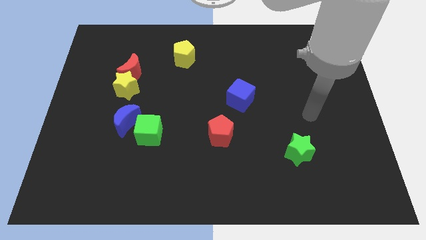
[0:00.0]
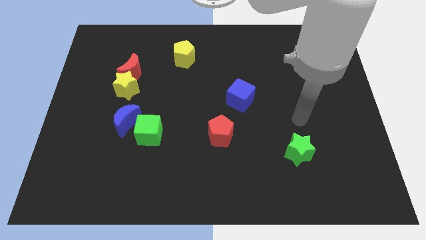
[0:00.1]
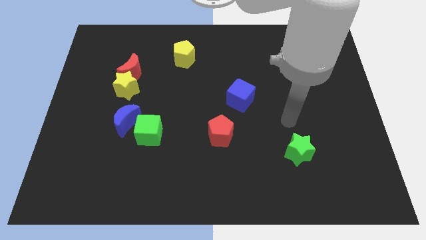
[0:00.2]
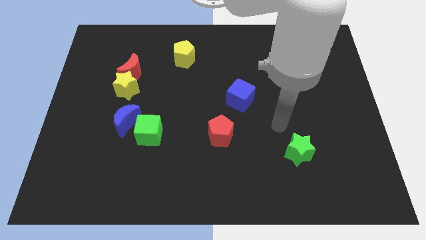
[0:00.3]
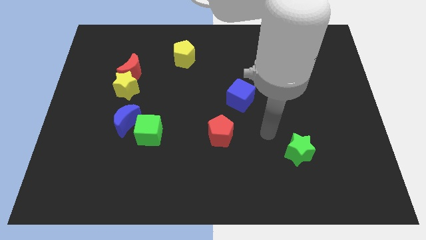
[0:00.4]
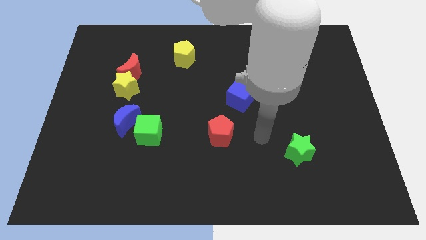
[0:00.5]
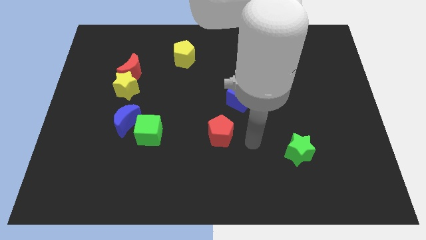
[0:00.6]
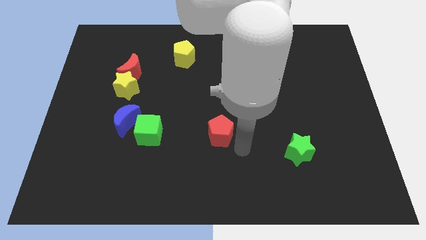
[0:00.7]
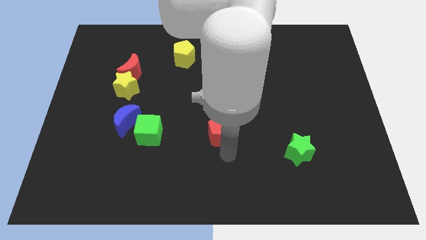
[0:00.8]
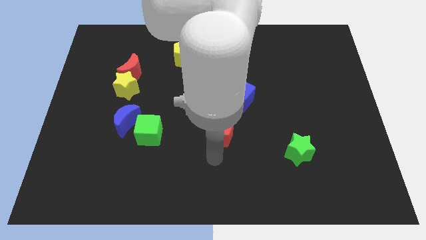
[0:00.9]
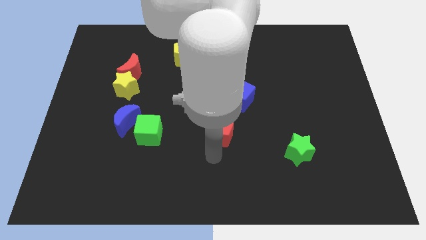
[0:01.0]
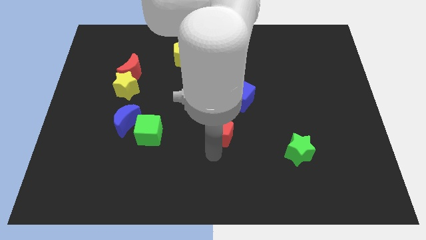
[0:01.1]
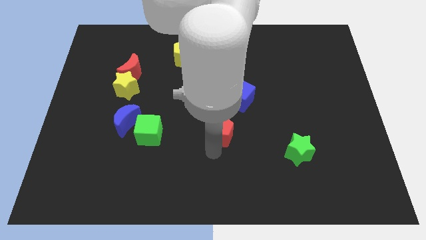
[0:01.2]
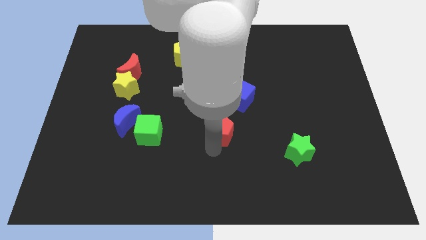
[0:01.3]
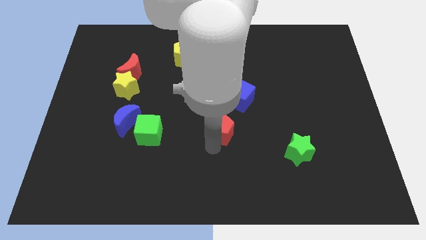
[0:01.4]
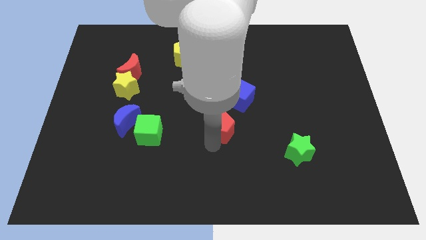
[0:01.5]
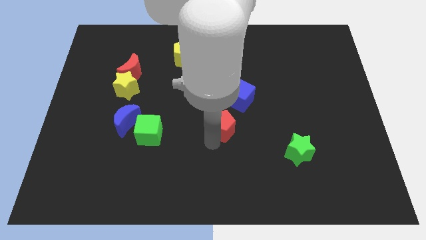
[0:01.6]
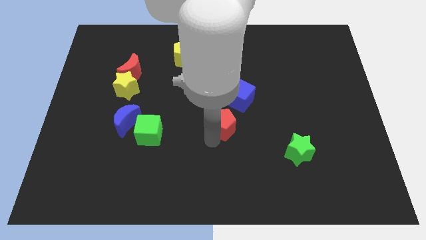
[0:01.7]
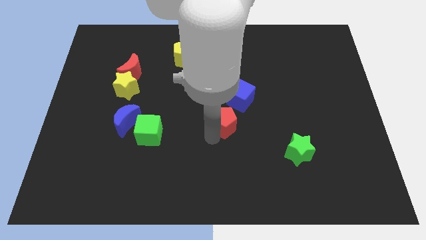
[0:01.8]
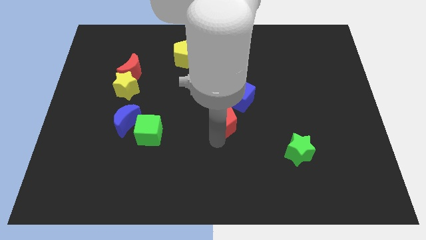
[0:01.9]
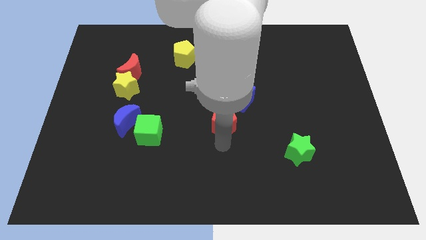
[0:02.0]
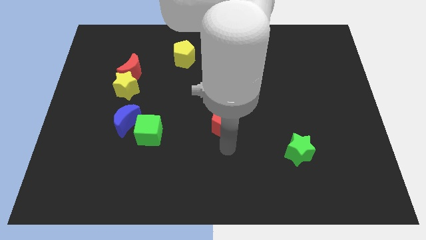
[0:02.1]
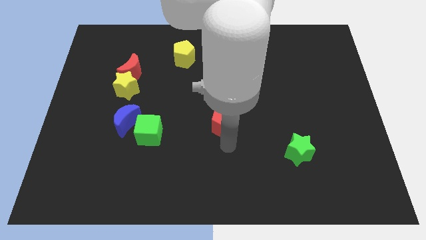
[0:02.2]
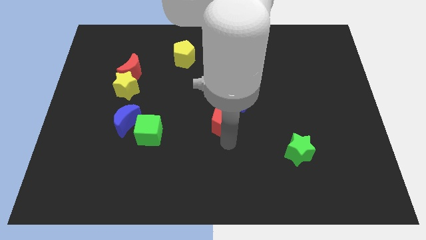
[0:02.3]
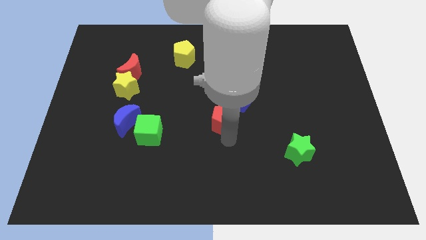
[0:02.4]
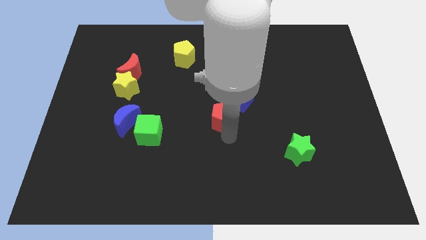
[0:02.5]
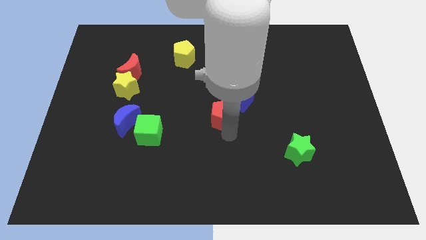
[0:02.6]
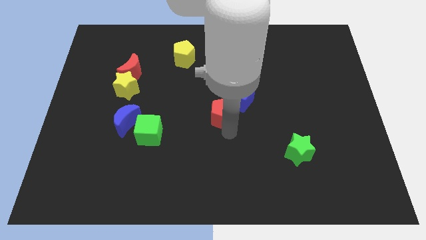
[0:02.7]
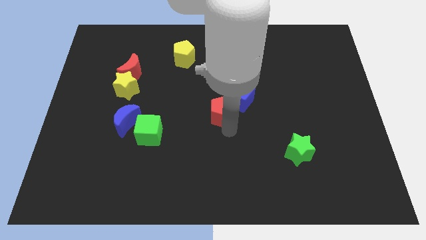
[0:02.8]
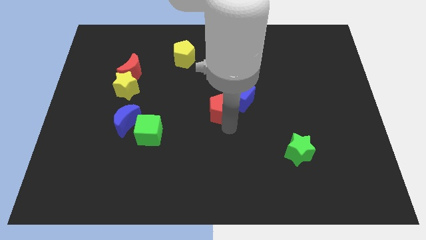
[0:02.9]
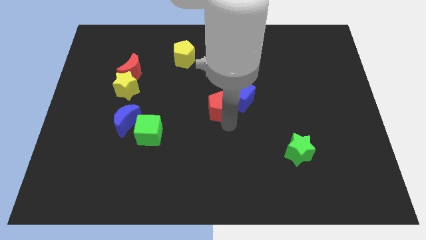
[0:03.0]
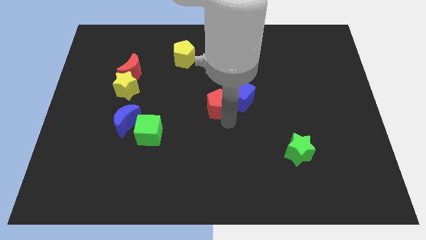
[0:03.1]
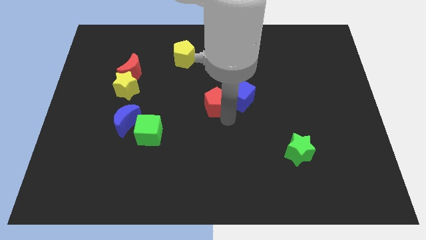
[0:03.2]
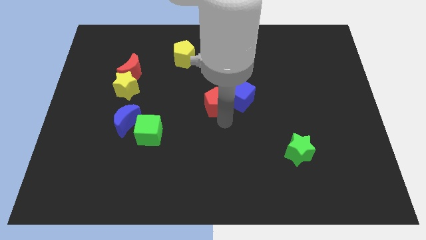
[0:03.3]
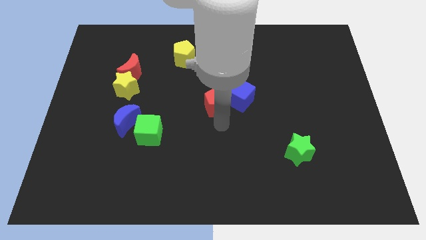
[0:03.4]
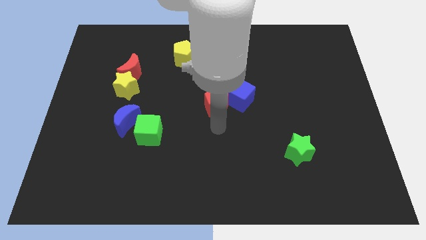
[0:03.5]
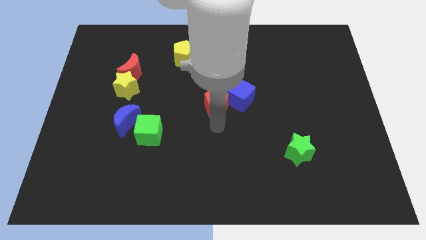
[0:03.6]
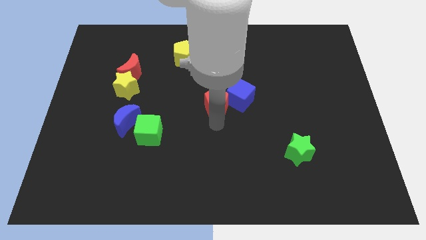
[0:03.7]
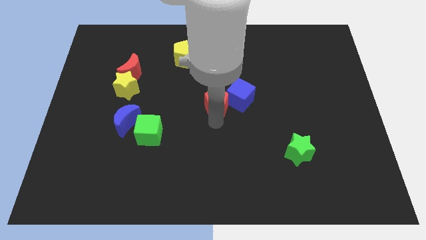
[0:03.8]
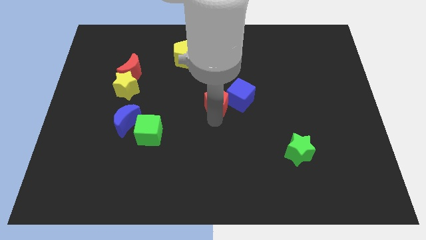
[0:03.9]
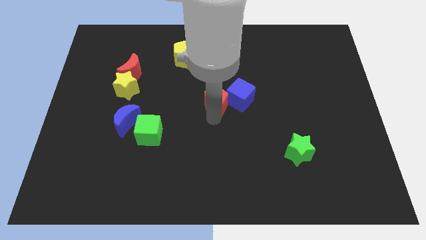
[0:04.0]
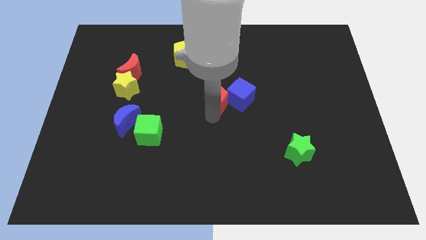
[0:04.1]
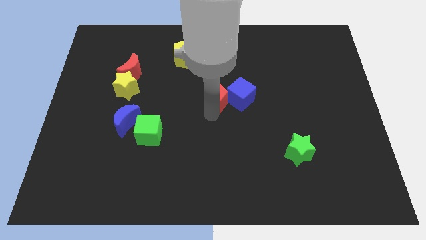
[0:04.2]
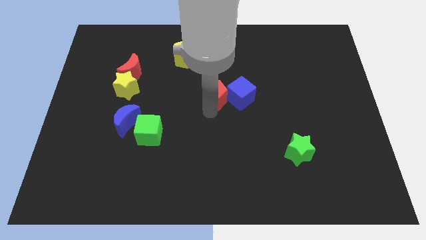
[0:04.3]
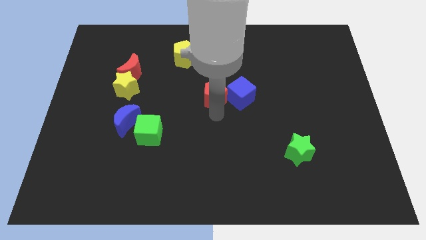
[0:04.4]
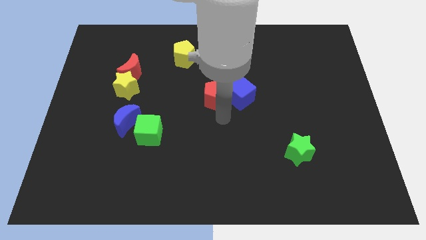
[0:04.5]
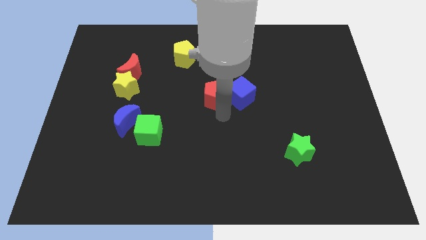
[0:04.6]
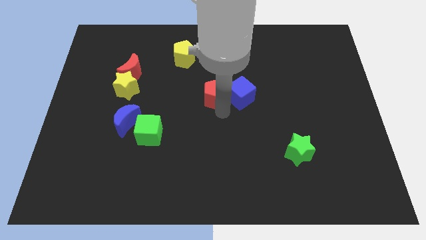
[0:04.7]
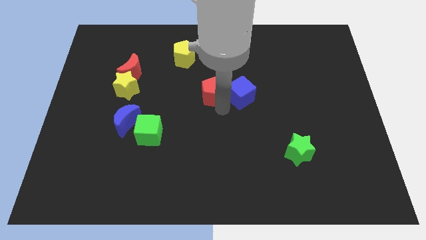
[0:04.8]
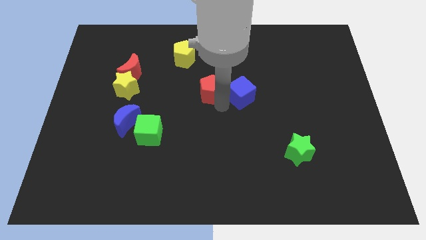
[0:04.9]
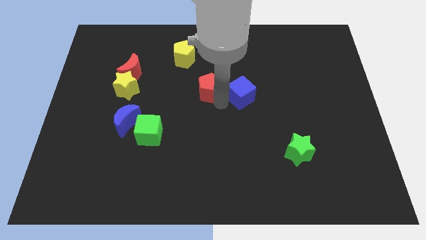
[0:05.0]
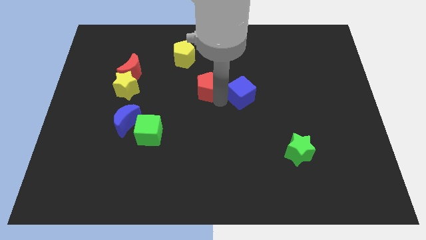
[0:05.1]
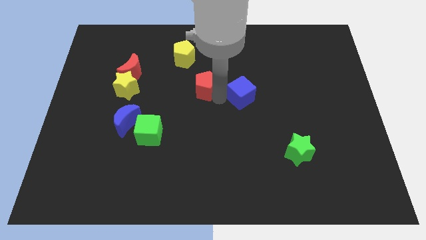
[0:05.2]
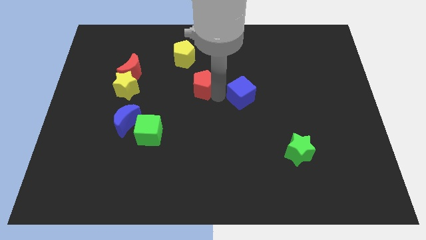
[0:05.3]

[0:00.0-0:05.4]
push the red pentagon to the bottom right of the yellow pentagon

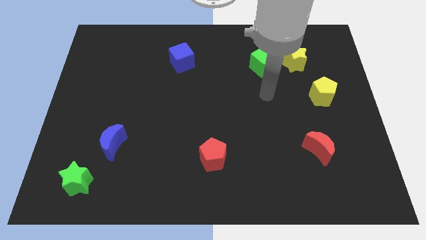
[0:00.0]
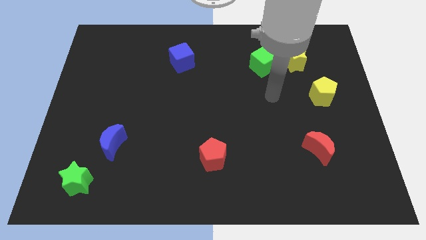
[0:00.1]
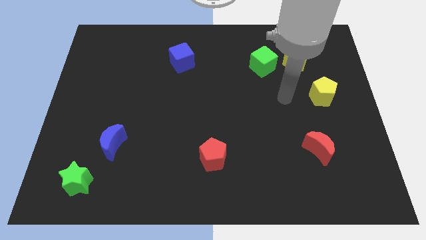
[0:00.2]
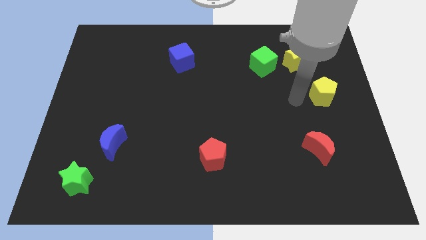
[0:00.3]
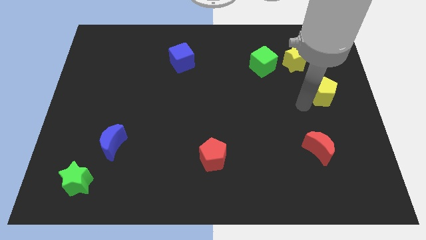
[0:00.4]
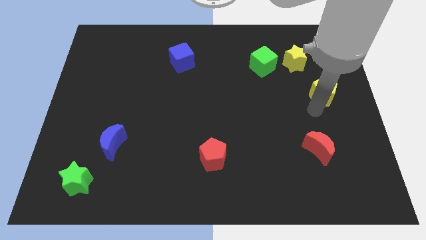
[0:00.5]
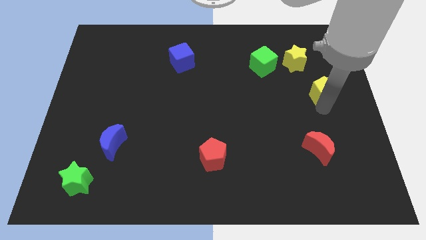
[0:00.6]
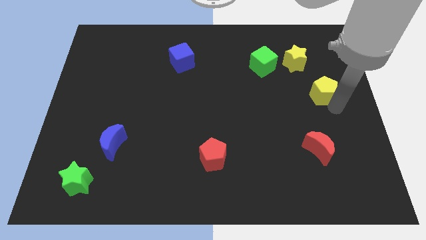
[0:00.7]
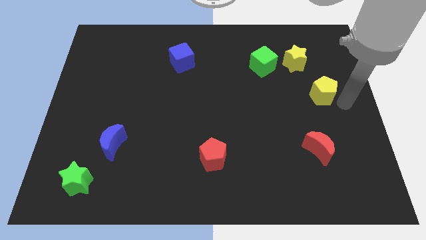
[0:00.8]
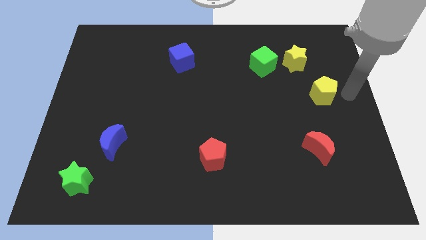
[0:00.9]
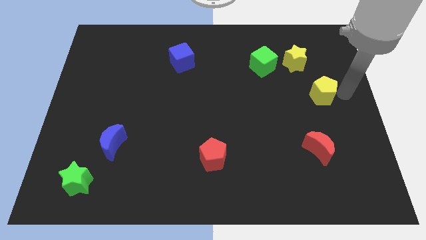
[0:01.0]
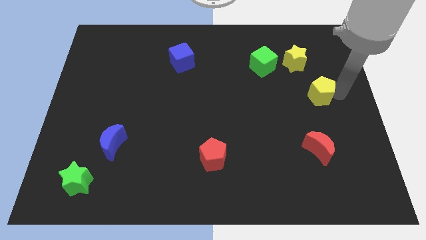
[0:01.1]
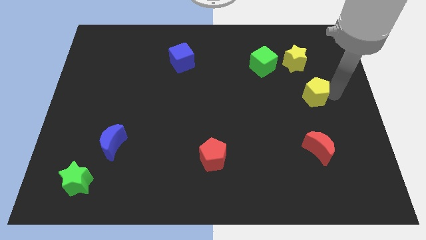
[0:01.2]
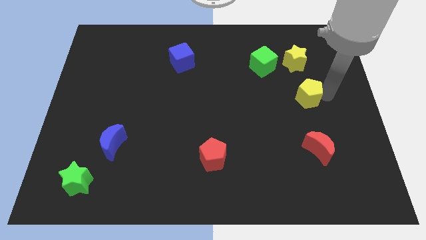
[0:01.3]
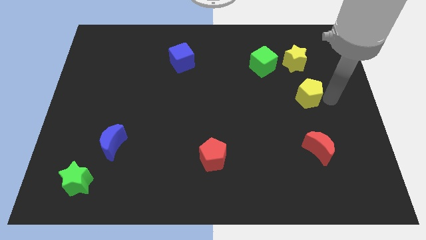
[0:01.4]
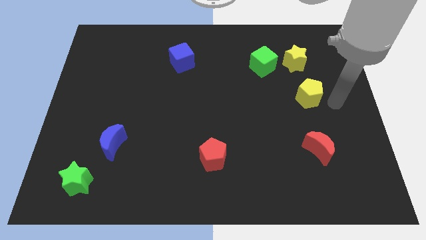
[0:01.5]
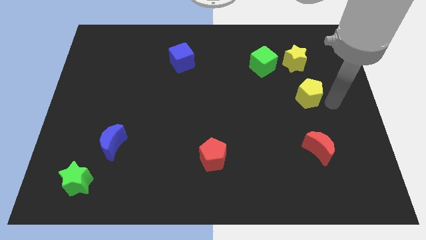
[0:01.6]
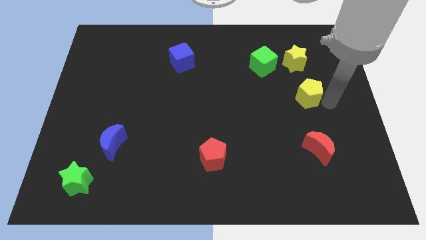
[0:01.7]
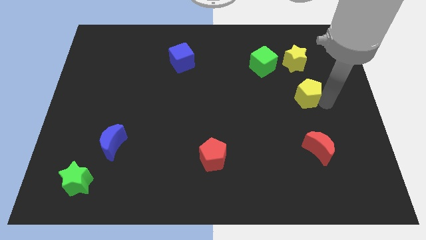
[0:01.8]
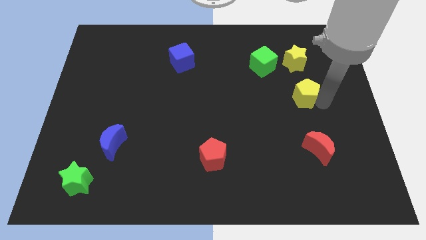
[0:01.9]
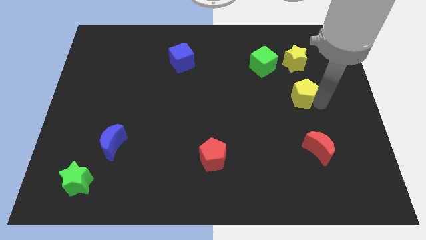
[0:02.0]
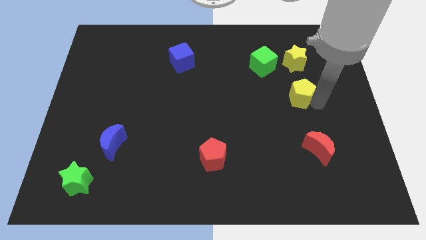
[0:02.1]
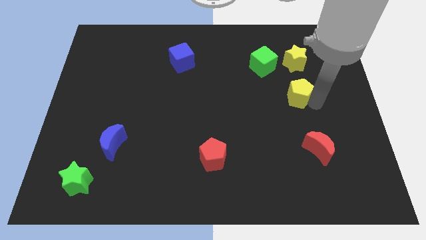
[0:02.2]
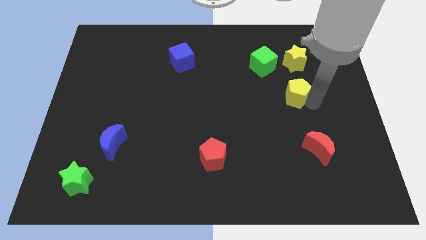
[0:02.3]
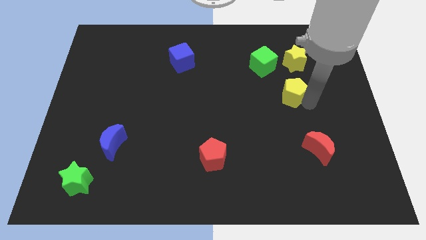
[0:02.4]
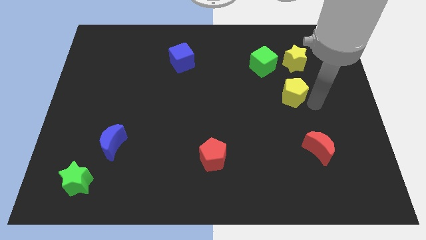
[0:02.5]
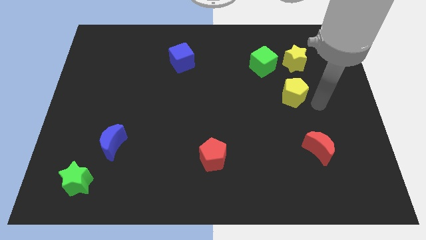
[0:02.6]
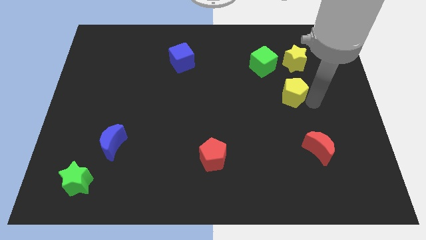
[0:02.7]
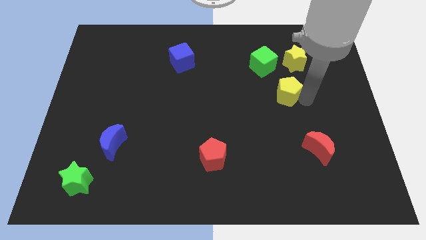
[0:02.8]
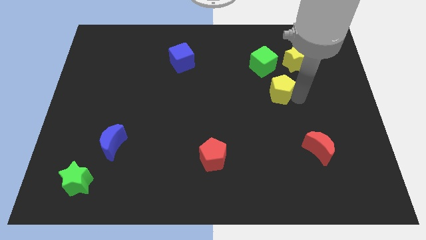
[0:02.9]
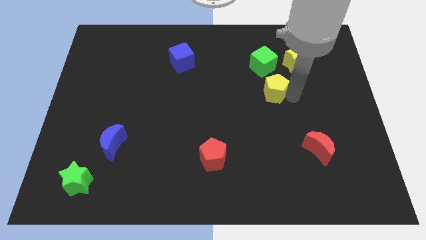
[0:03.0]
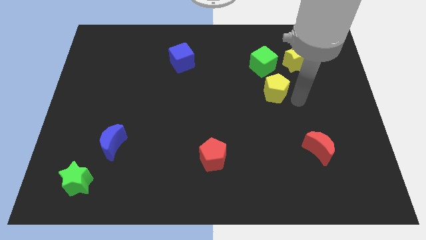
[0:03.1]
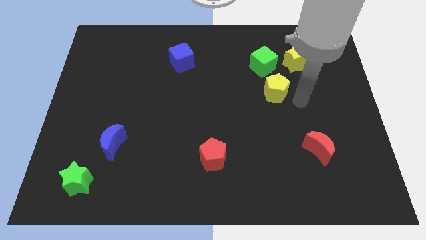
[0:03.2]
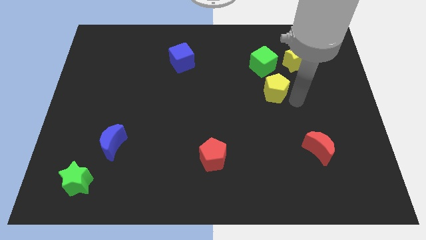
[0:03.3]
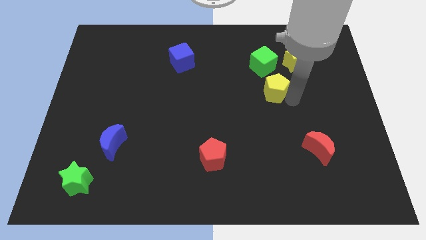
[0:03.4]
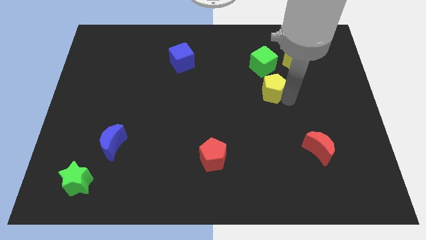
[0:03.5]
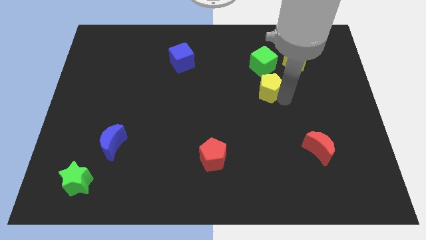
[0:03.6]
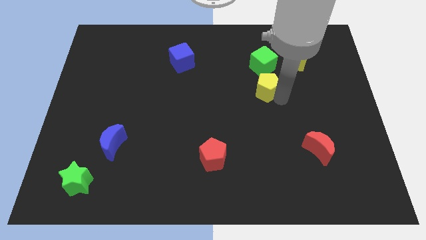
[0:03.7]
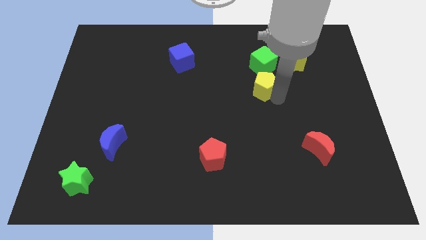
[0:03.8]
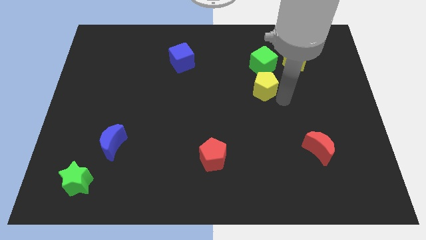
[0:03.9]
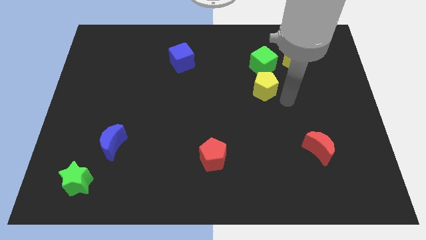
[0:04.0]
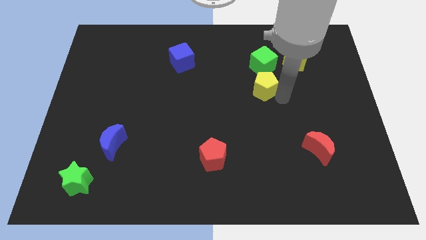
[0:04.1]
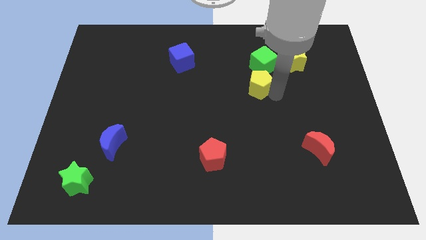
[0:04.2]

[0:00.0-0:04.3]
push the yellow pentagon to the bottom left side of the green cube
